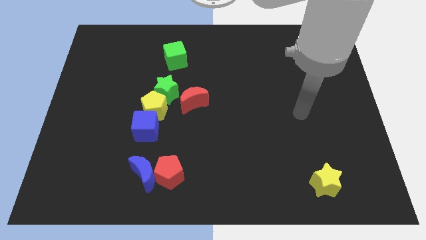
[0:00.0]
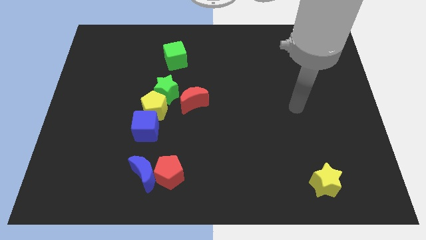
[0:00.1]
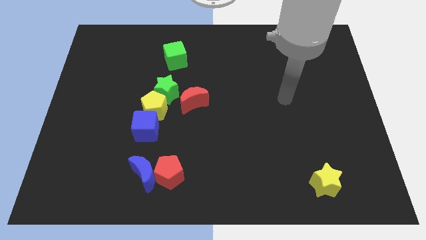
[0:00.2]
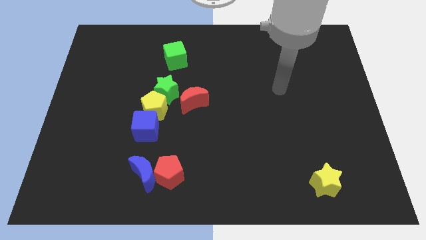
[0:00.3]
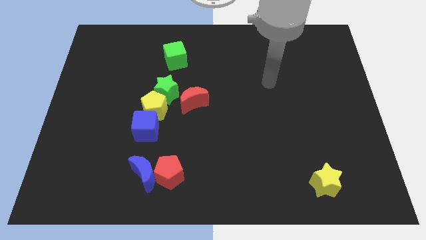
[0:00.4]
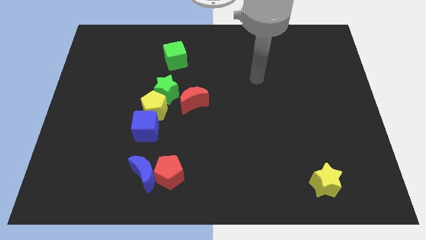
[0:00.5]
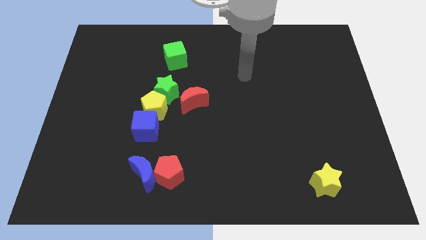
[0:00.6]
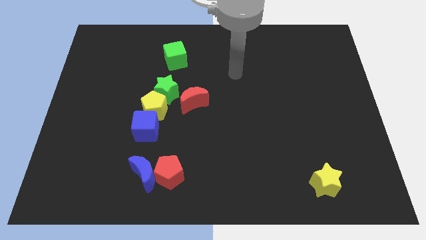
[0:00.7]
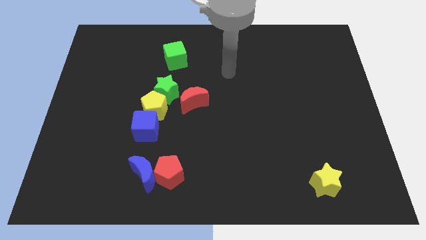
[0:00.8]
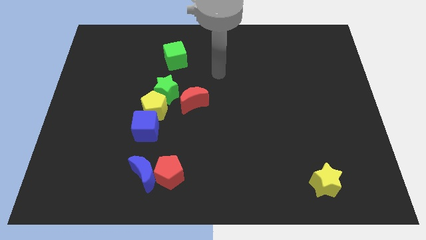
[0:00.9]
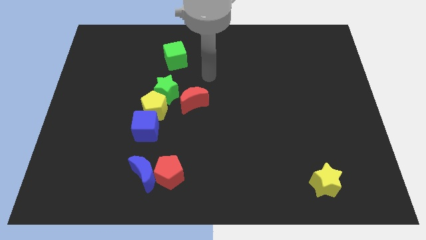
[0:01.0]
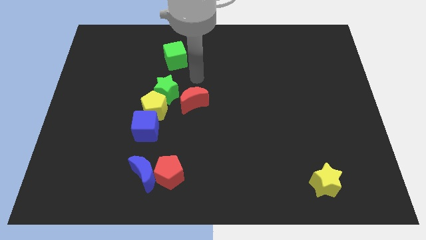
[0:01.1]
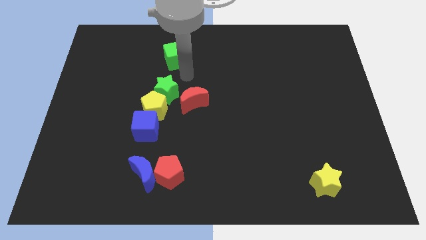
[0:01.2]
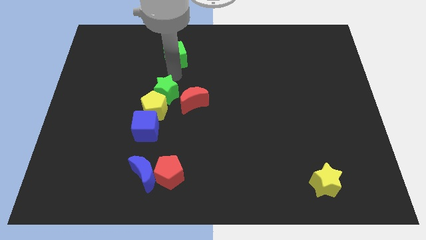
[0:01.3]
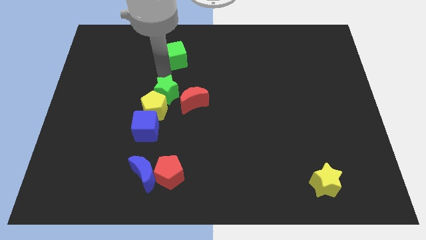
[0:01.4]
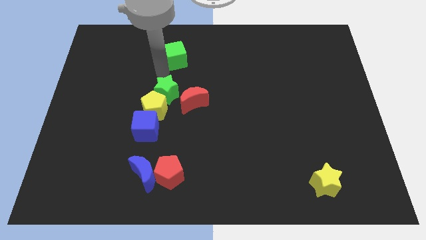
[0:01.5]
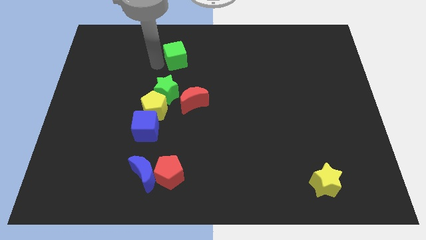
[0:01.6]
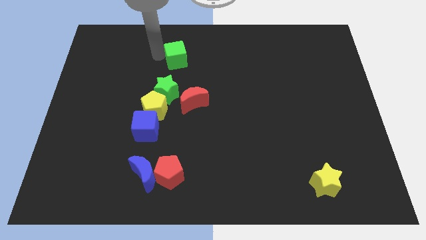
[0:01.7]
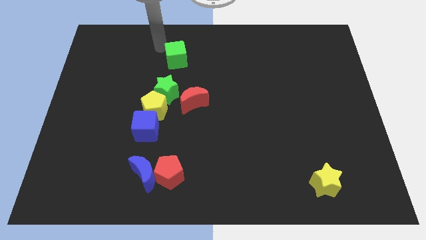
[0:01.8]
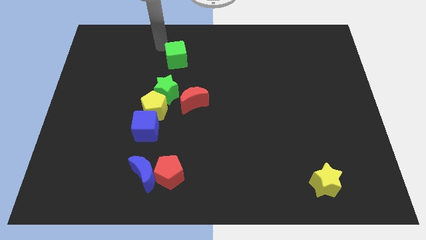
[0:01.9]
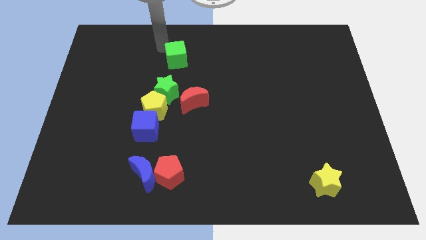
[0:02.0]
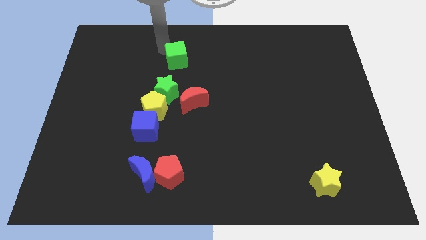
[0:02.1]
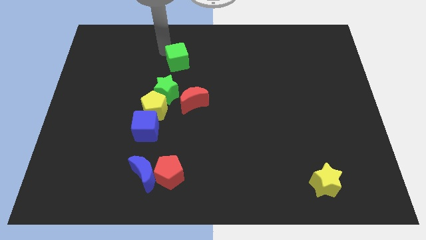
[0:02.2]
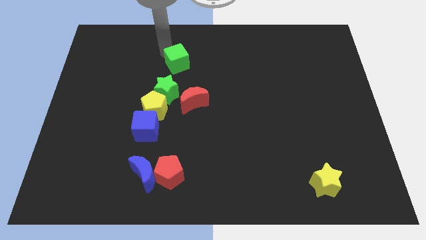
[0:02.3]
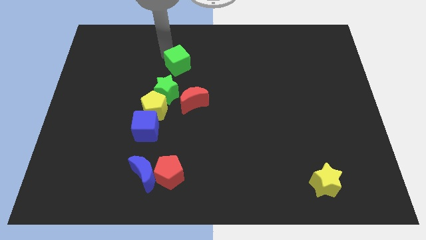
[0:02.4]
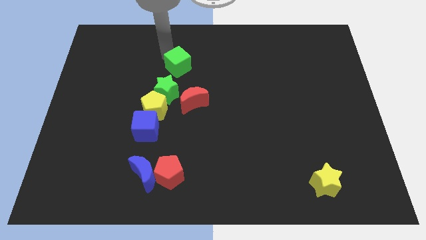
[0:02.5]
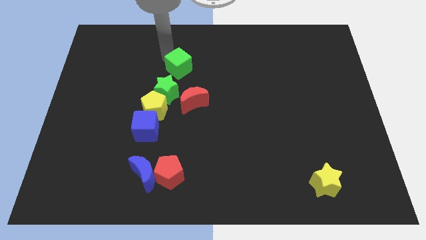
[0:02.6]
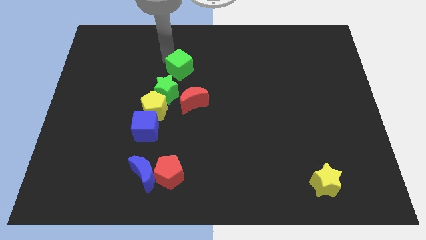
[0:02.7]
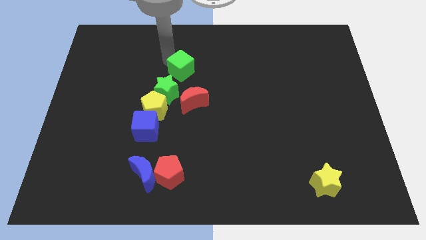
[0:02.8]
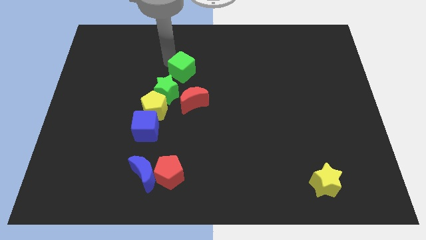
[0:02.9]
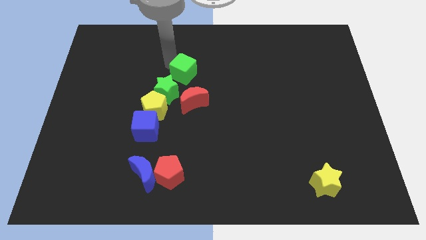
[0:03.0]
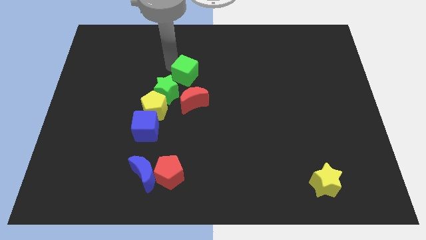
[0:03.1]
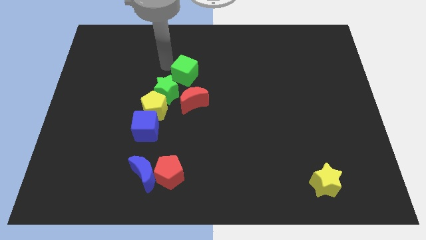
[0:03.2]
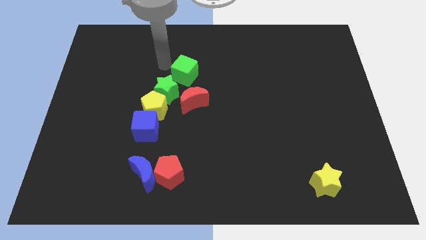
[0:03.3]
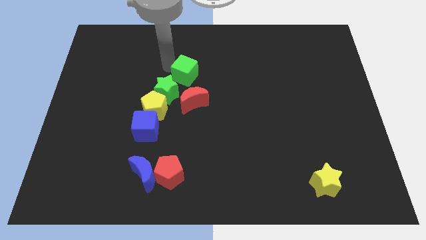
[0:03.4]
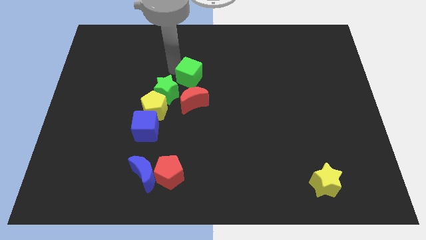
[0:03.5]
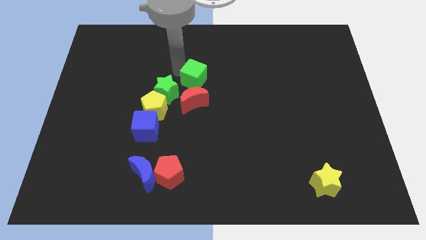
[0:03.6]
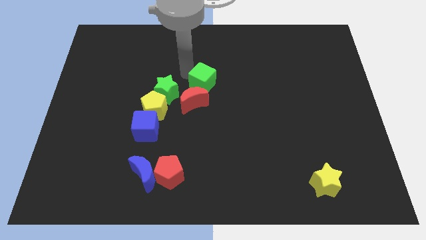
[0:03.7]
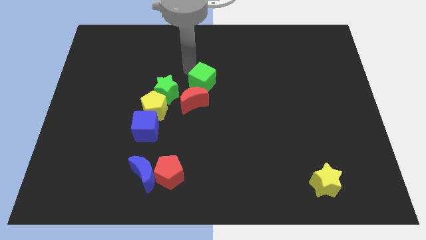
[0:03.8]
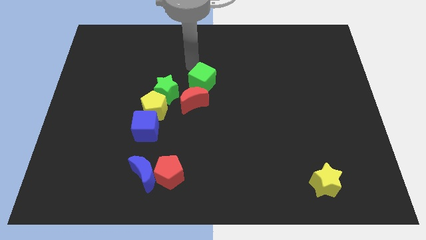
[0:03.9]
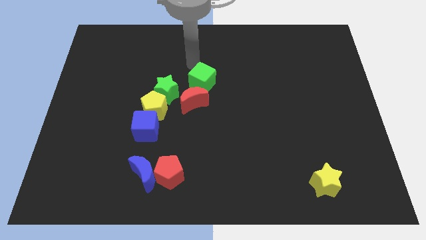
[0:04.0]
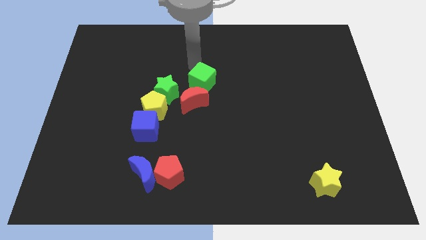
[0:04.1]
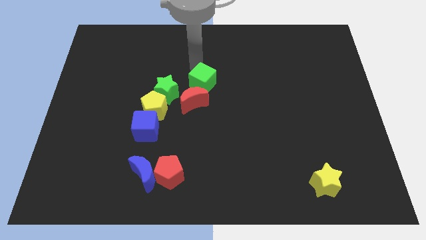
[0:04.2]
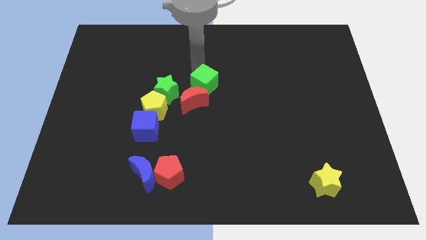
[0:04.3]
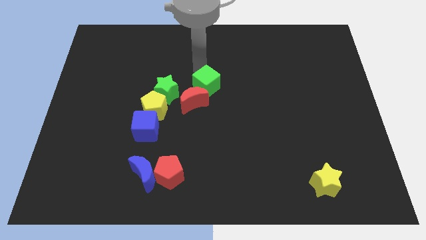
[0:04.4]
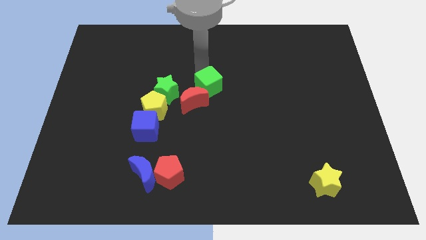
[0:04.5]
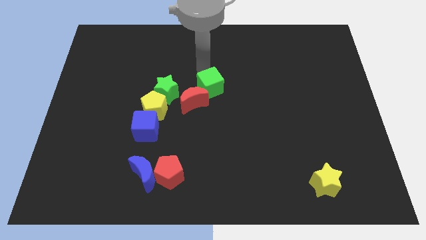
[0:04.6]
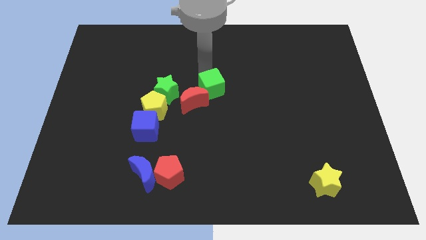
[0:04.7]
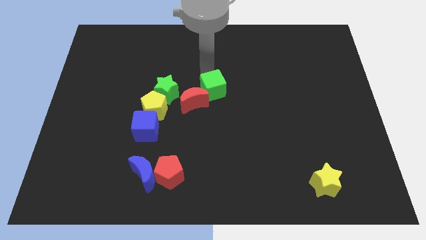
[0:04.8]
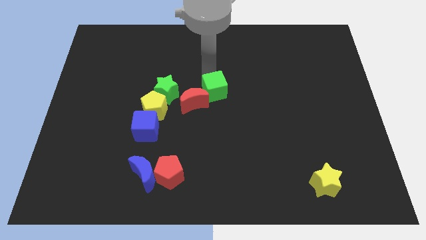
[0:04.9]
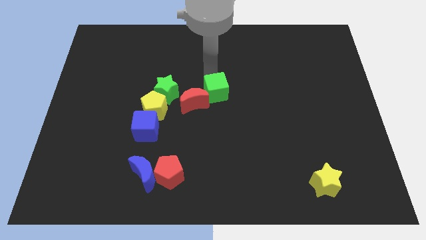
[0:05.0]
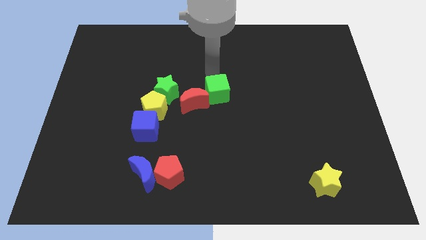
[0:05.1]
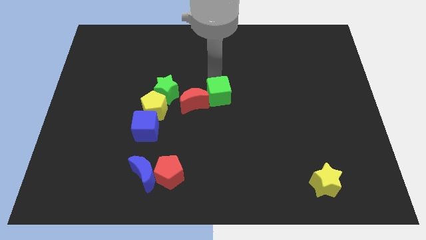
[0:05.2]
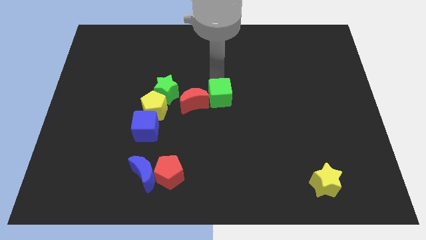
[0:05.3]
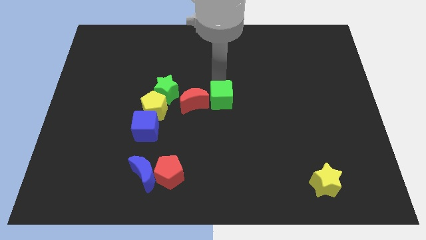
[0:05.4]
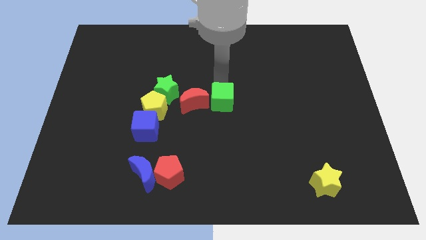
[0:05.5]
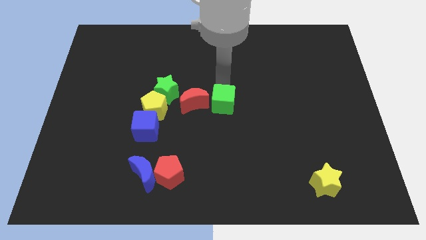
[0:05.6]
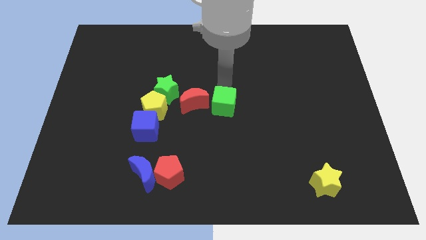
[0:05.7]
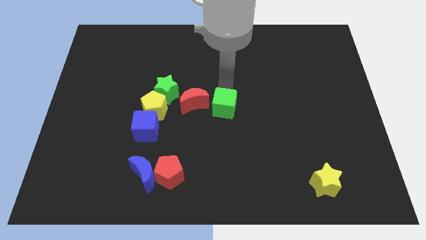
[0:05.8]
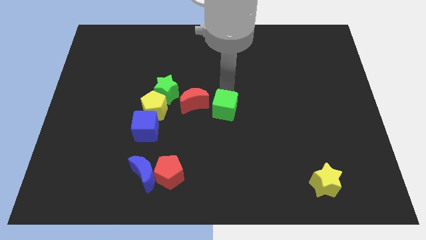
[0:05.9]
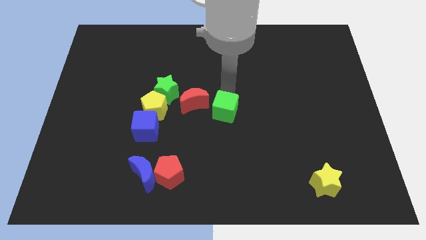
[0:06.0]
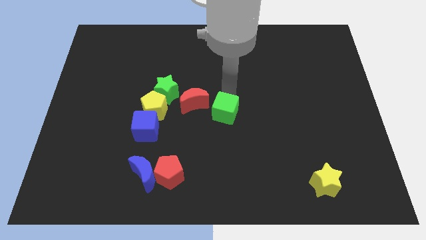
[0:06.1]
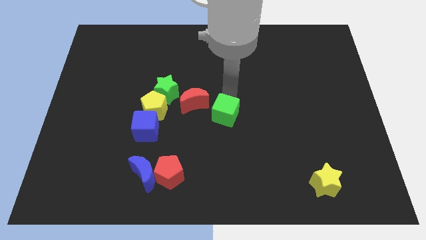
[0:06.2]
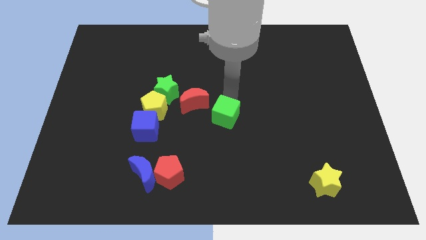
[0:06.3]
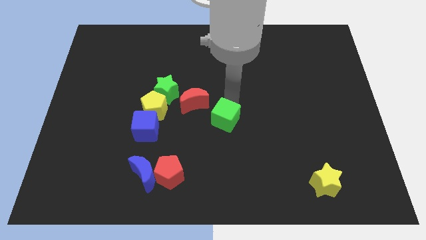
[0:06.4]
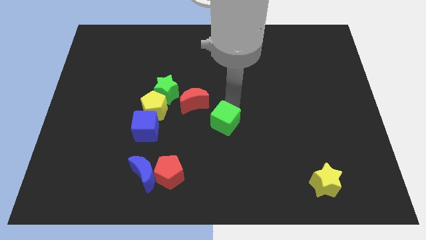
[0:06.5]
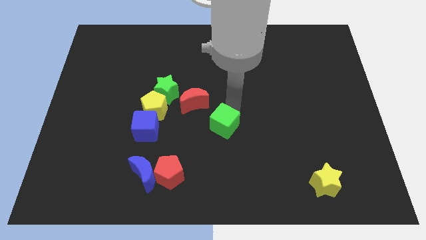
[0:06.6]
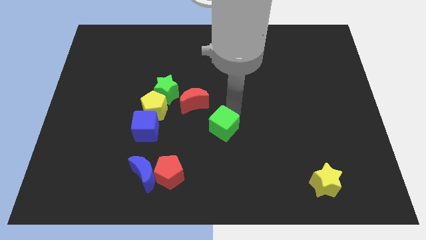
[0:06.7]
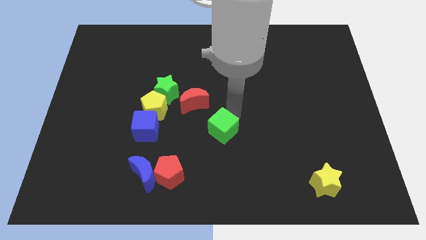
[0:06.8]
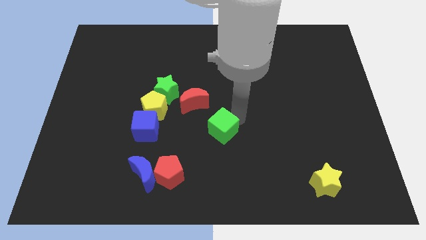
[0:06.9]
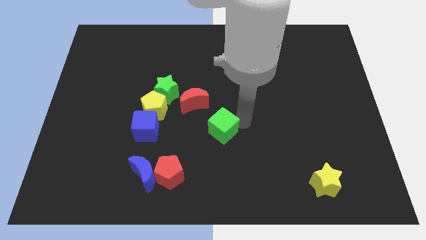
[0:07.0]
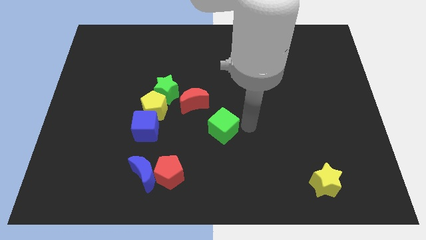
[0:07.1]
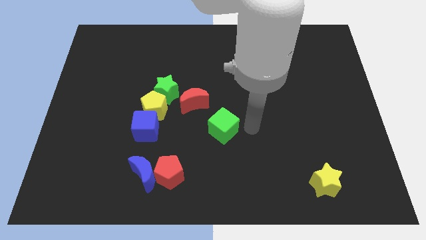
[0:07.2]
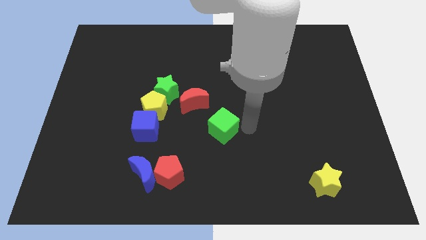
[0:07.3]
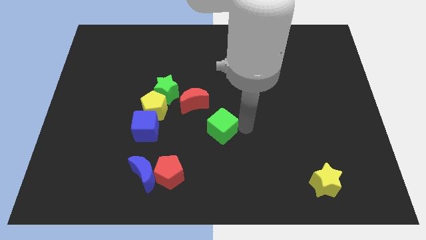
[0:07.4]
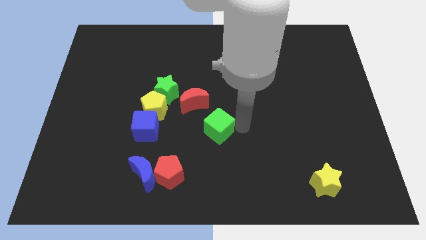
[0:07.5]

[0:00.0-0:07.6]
put the green cube to the right side of the blue cube
